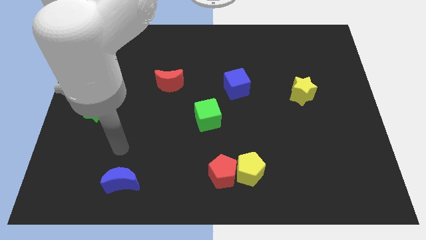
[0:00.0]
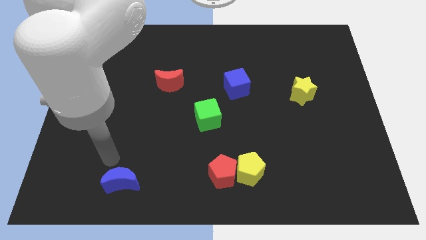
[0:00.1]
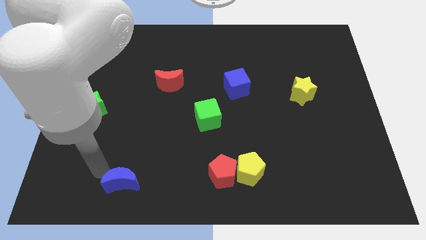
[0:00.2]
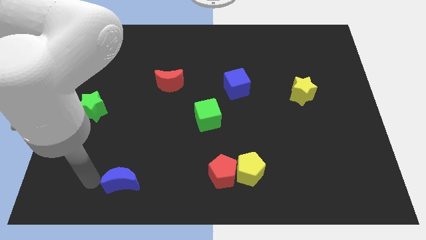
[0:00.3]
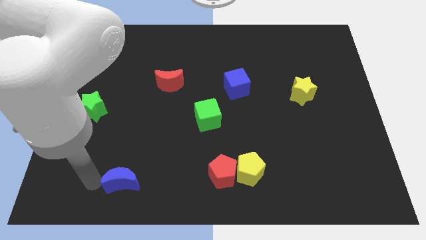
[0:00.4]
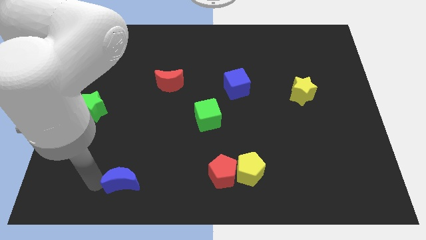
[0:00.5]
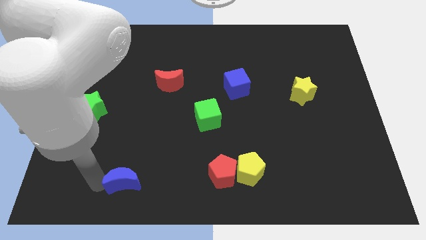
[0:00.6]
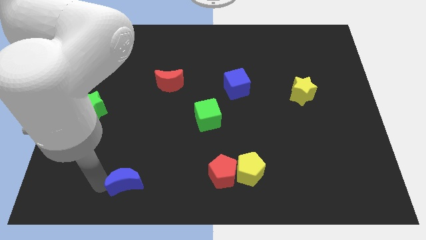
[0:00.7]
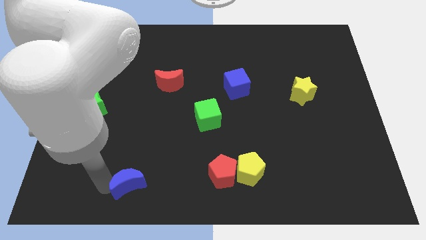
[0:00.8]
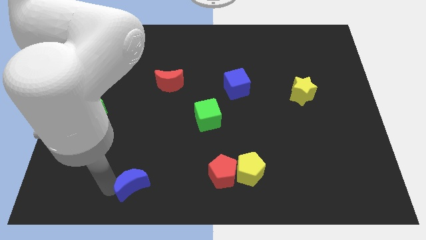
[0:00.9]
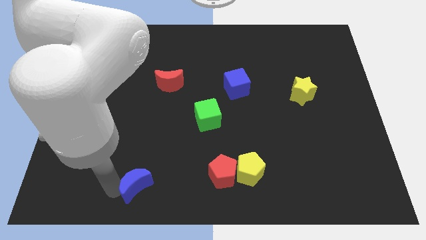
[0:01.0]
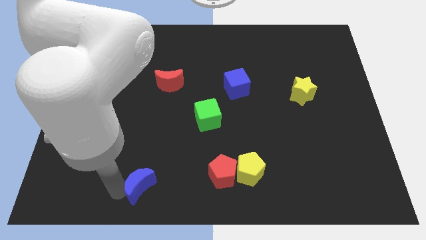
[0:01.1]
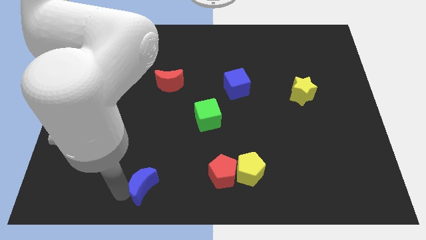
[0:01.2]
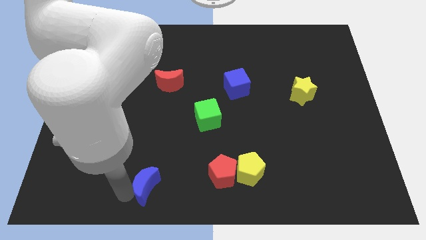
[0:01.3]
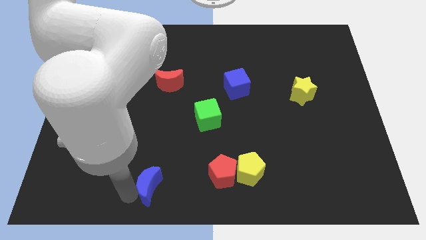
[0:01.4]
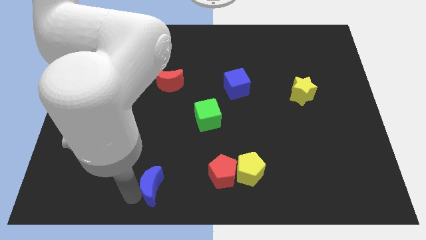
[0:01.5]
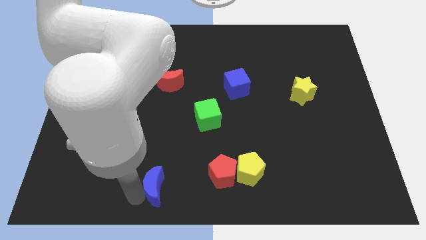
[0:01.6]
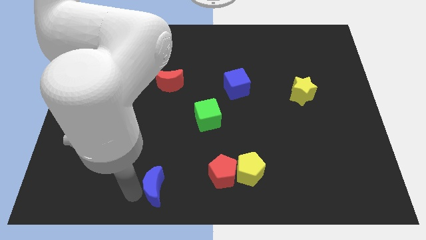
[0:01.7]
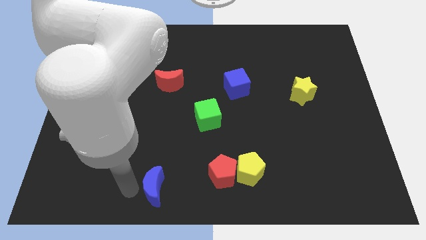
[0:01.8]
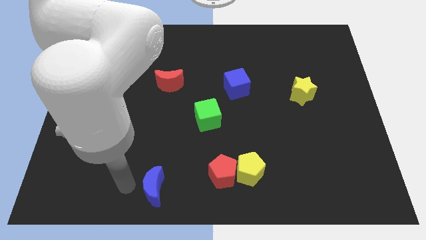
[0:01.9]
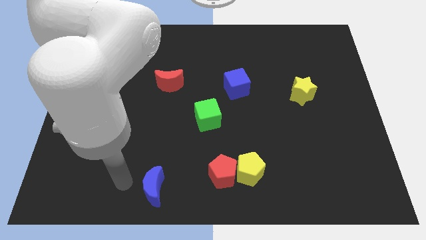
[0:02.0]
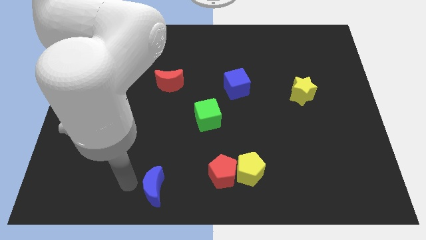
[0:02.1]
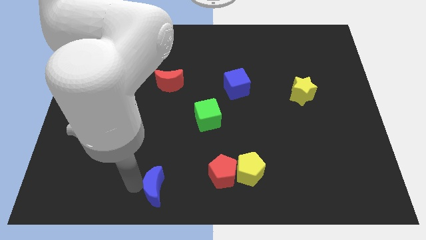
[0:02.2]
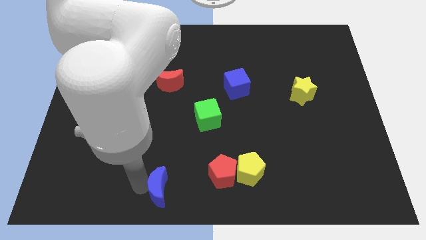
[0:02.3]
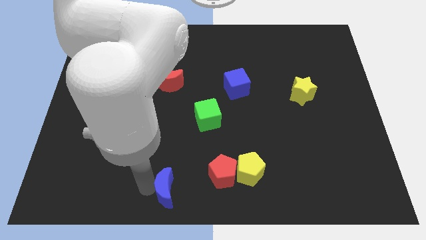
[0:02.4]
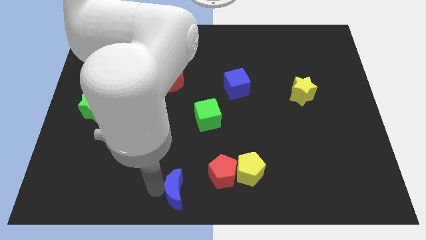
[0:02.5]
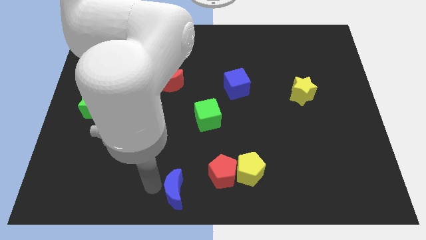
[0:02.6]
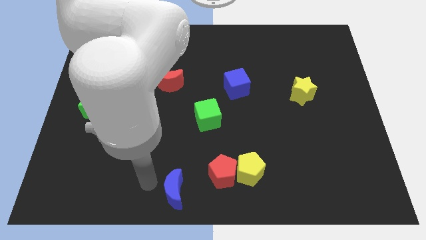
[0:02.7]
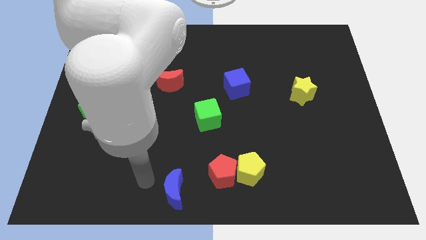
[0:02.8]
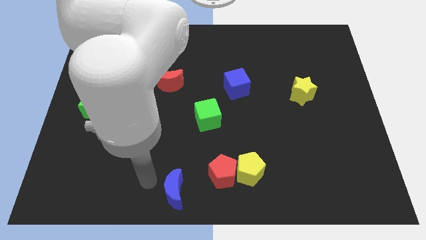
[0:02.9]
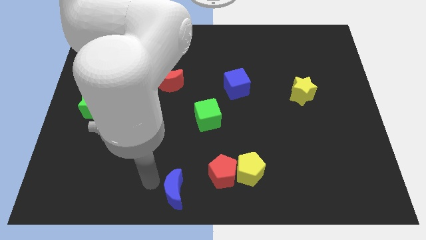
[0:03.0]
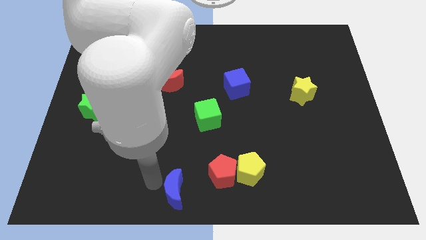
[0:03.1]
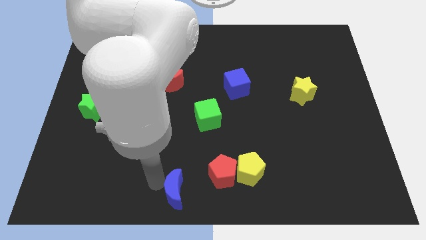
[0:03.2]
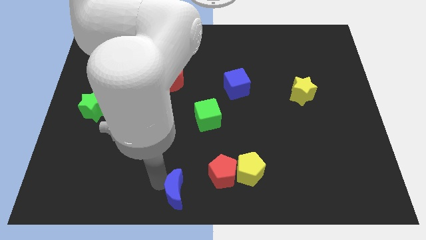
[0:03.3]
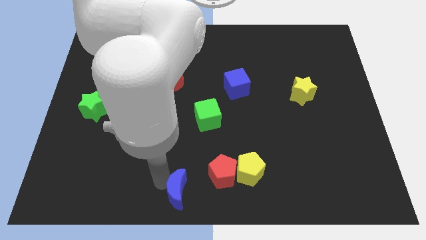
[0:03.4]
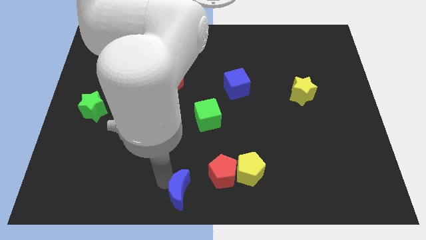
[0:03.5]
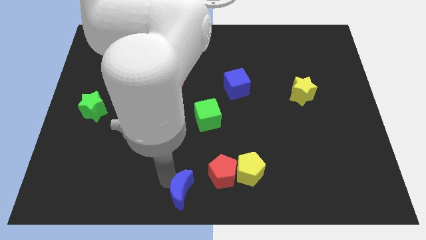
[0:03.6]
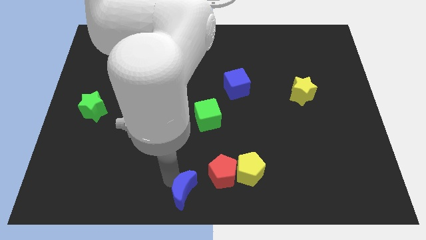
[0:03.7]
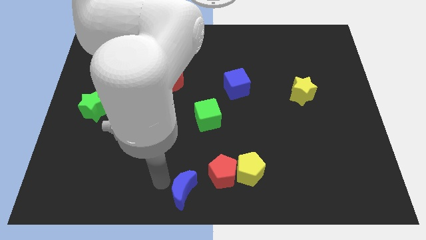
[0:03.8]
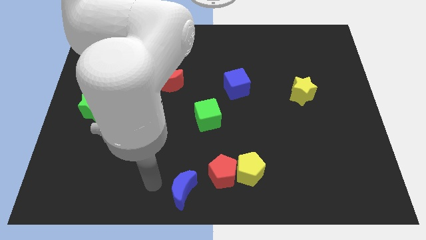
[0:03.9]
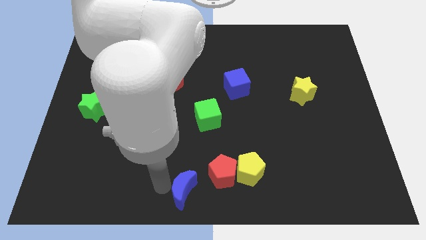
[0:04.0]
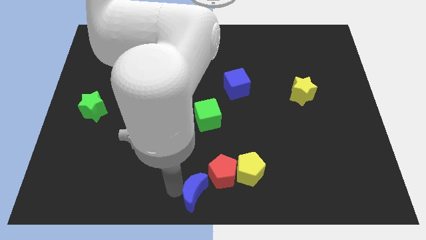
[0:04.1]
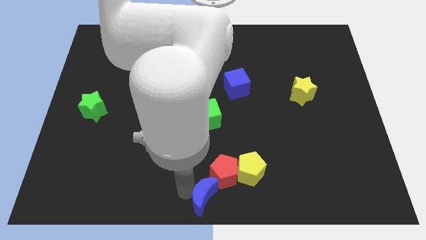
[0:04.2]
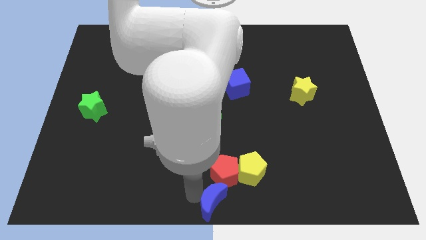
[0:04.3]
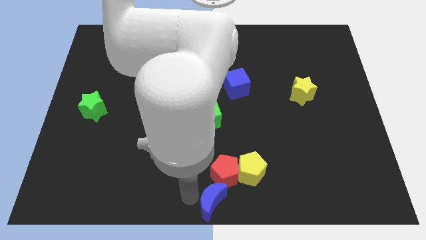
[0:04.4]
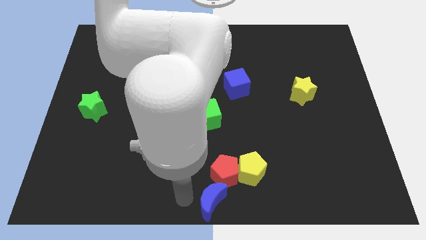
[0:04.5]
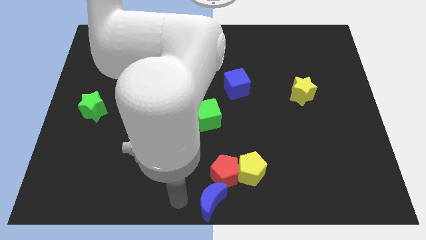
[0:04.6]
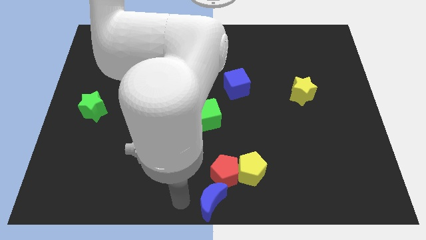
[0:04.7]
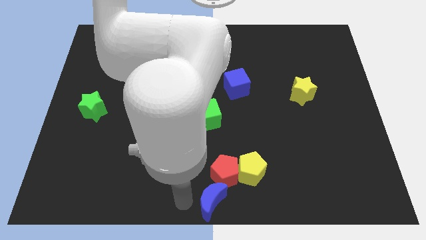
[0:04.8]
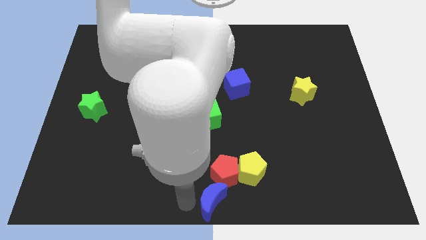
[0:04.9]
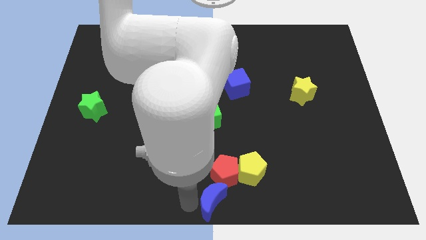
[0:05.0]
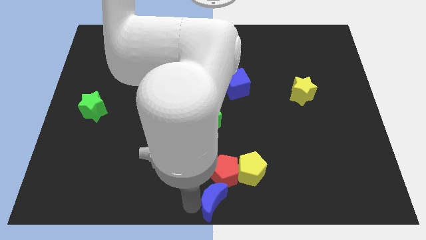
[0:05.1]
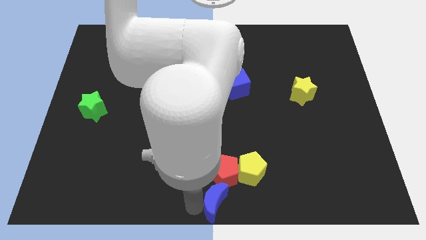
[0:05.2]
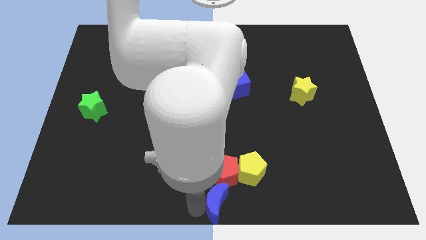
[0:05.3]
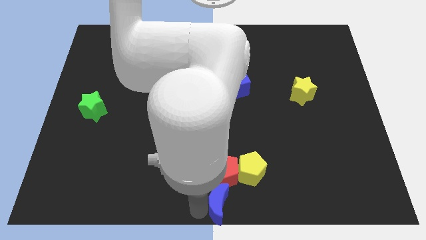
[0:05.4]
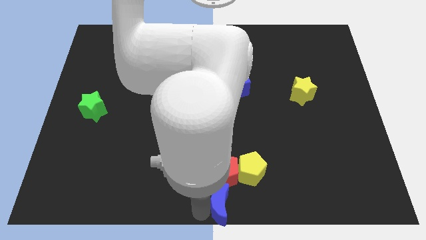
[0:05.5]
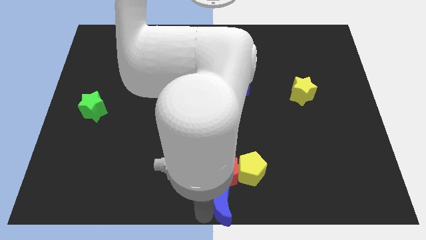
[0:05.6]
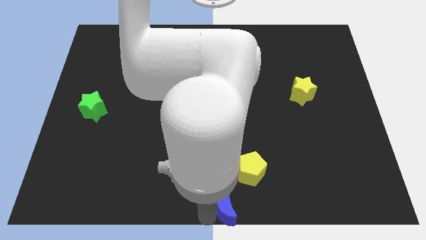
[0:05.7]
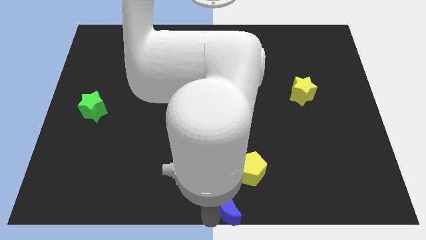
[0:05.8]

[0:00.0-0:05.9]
push the blue moon right

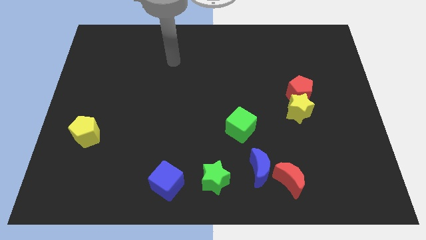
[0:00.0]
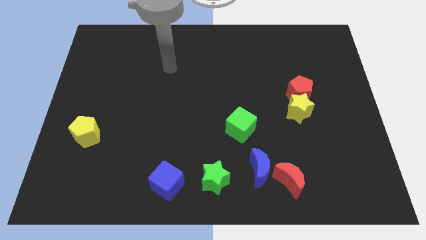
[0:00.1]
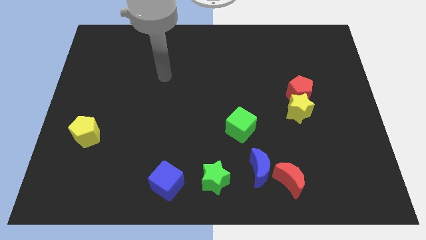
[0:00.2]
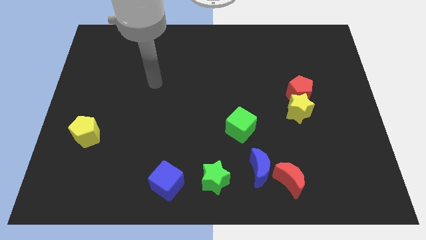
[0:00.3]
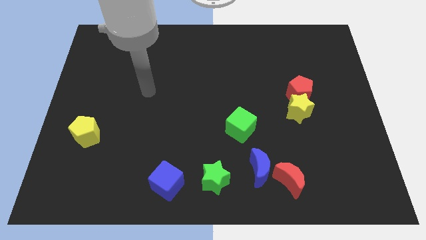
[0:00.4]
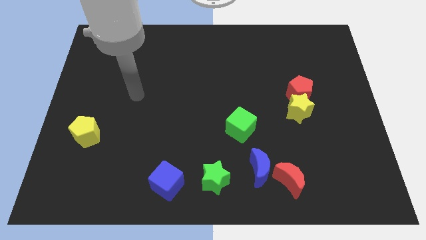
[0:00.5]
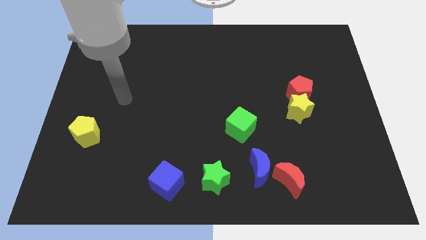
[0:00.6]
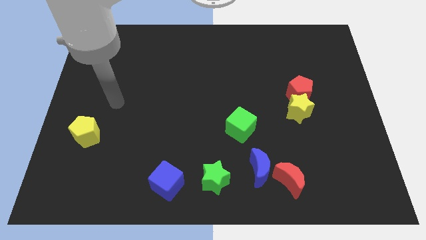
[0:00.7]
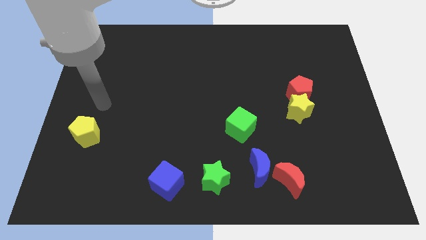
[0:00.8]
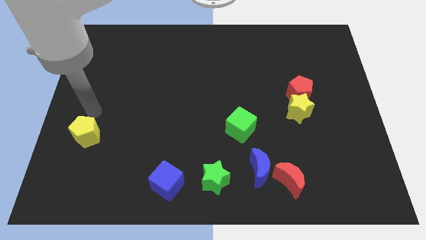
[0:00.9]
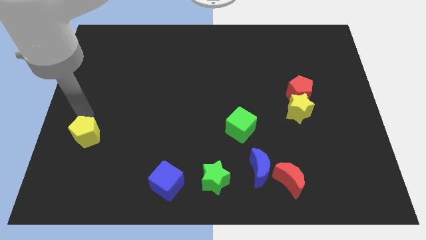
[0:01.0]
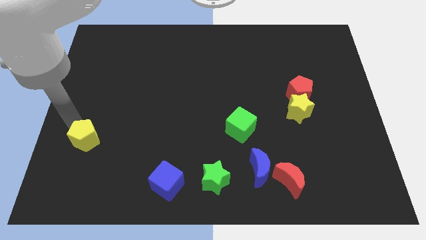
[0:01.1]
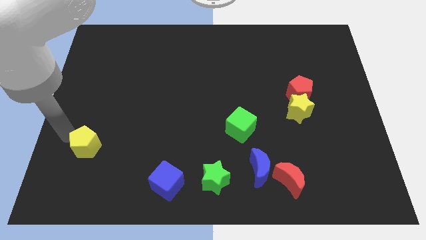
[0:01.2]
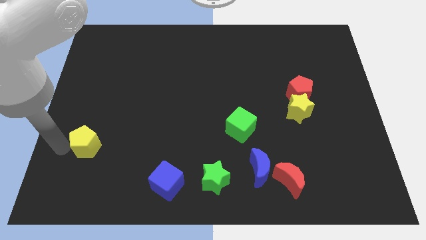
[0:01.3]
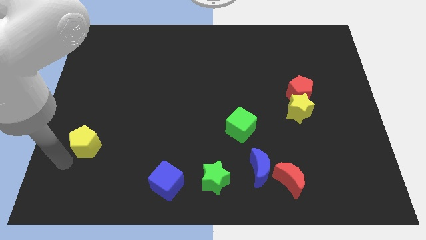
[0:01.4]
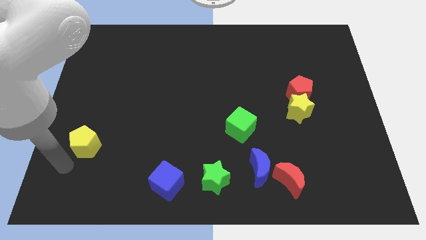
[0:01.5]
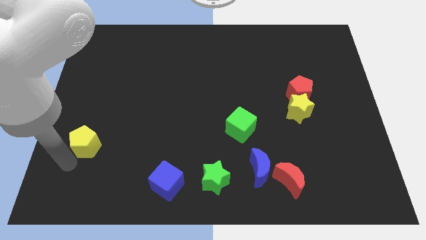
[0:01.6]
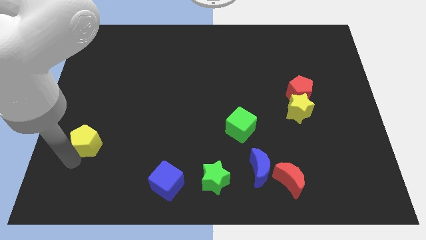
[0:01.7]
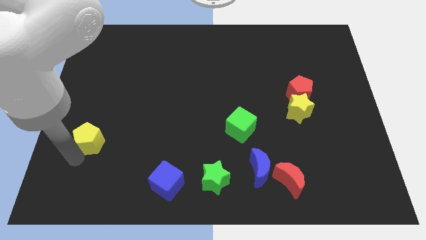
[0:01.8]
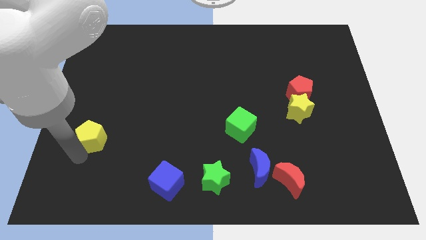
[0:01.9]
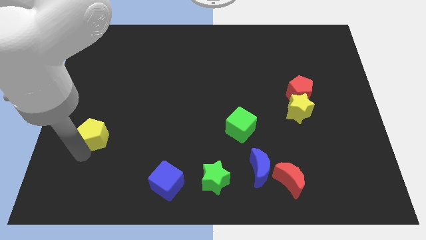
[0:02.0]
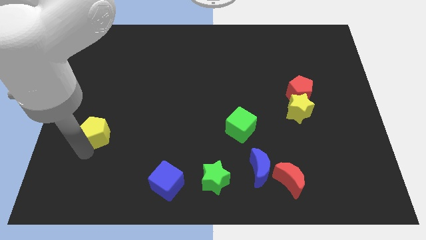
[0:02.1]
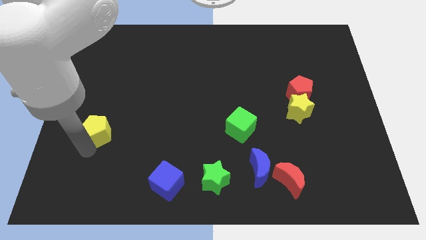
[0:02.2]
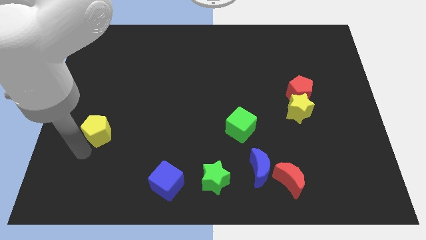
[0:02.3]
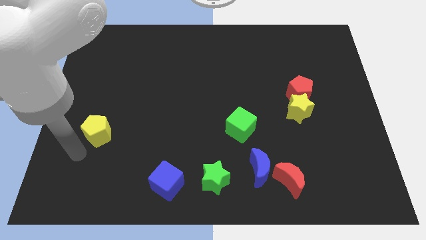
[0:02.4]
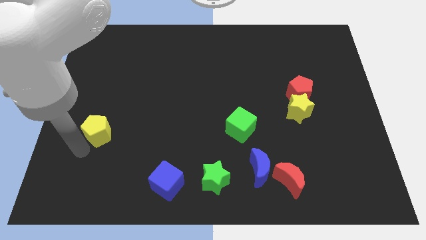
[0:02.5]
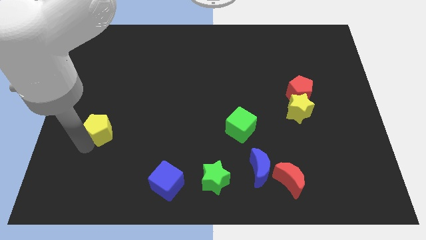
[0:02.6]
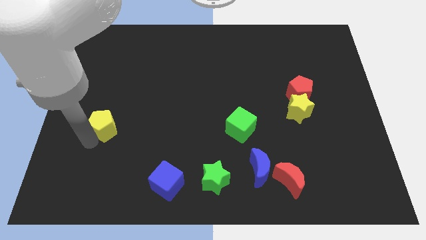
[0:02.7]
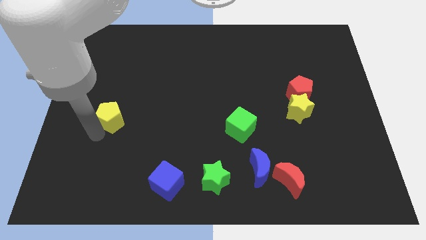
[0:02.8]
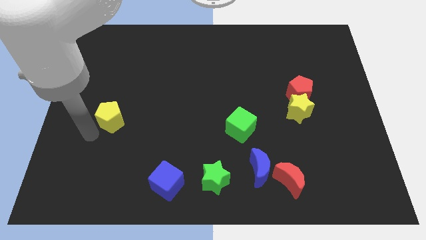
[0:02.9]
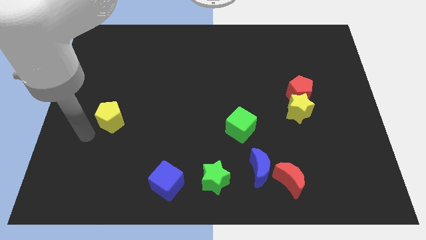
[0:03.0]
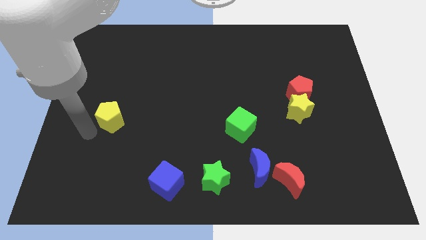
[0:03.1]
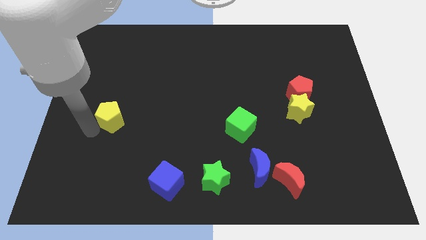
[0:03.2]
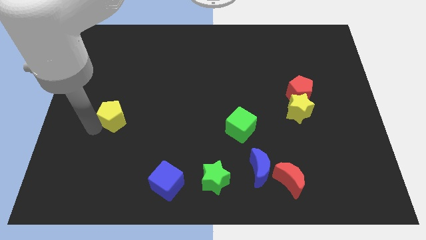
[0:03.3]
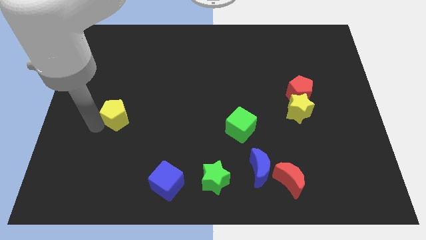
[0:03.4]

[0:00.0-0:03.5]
move the yellow pentagon somewhat diagonally up and to the right
